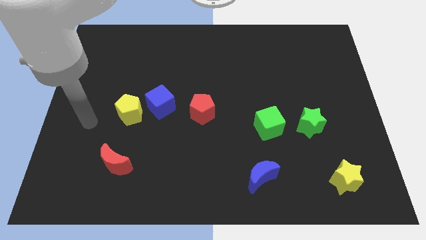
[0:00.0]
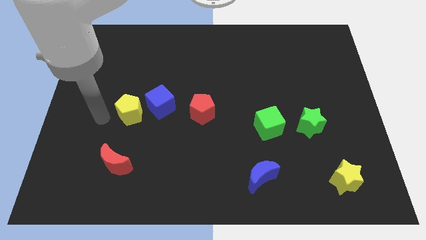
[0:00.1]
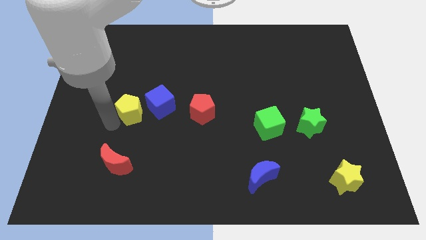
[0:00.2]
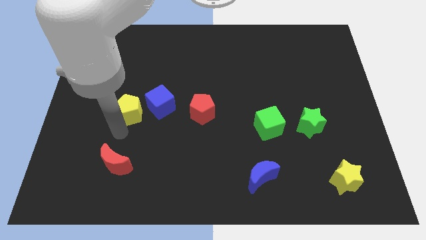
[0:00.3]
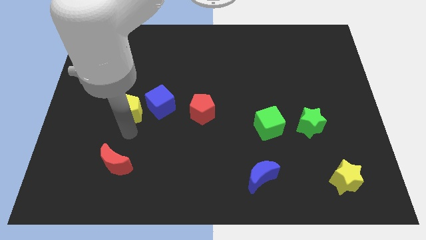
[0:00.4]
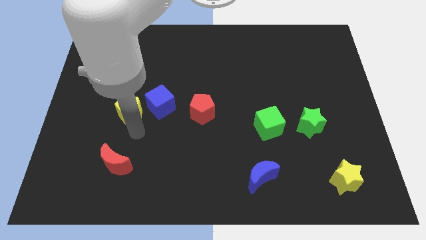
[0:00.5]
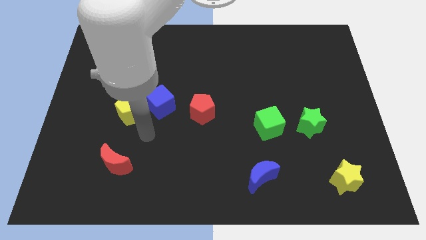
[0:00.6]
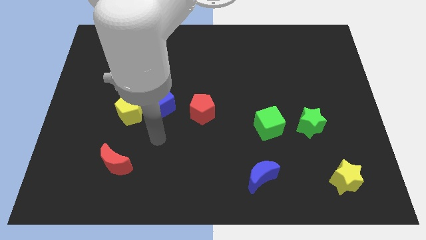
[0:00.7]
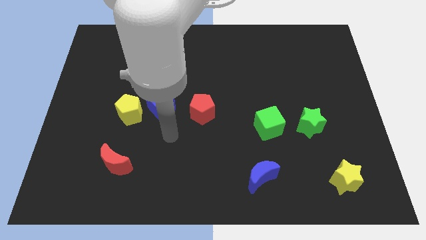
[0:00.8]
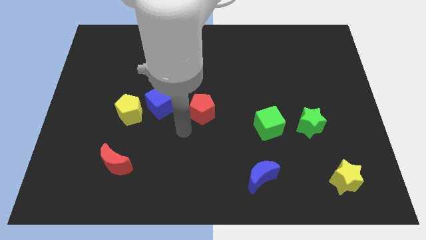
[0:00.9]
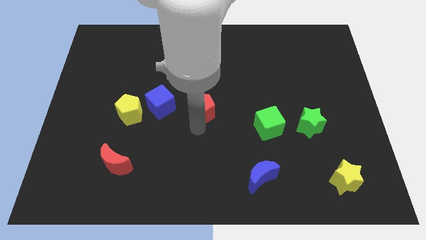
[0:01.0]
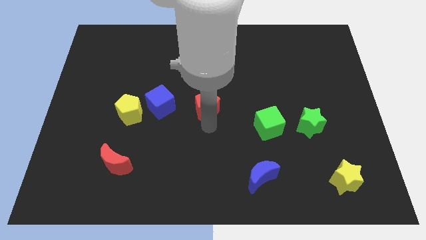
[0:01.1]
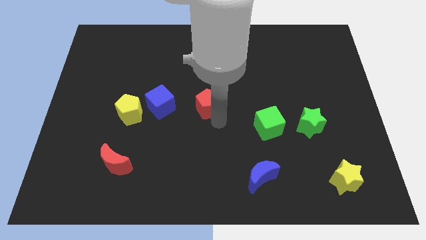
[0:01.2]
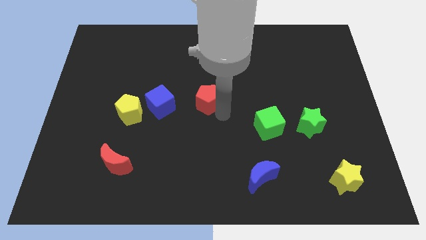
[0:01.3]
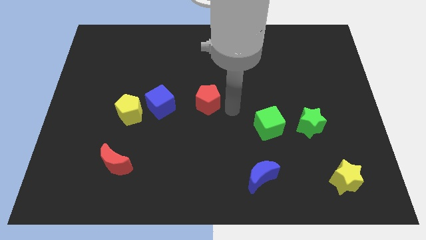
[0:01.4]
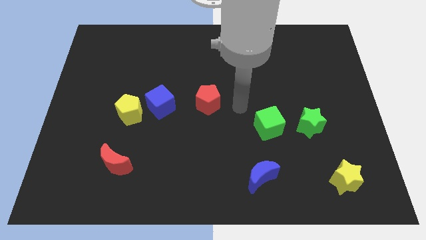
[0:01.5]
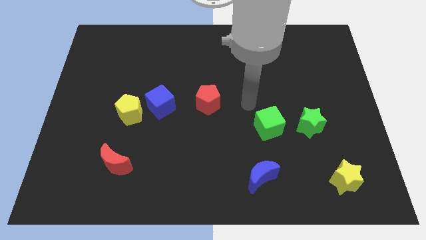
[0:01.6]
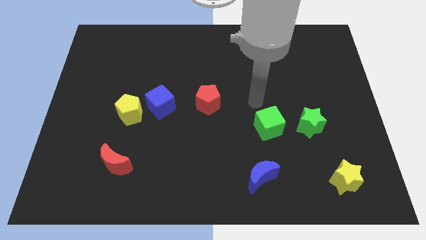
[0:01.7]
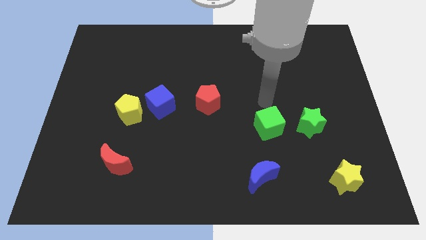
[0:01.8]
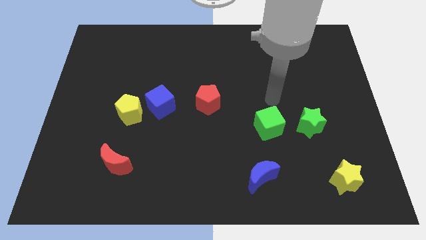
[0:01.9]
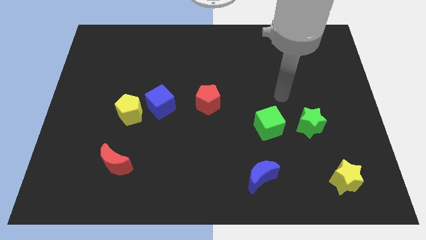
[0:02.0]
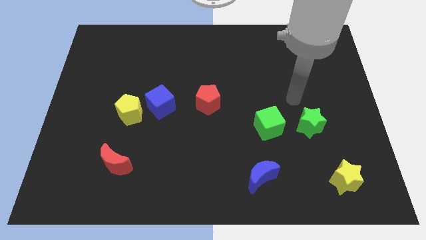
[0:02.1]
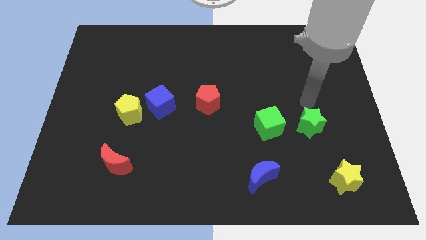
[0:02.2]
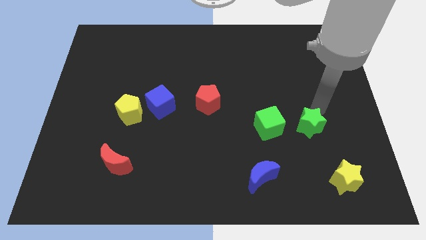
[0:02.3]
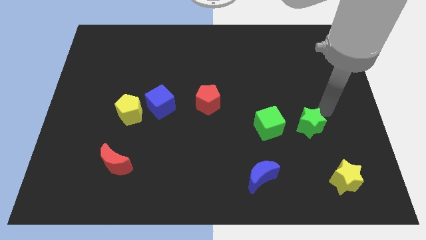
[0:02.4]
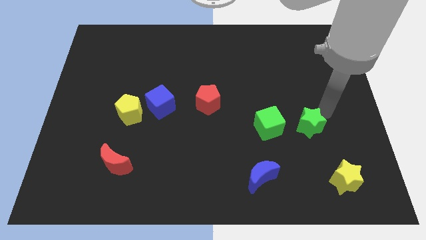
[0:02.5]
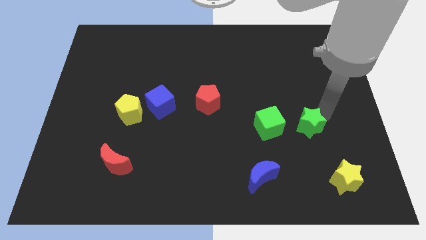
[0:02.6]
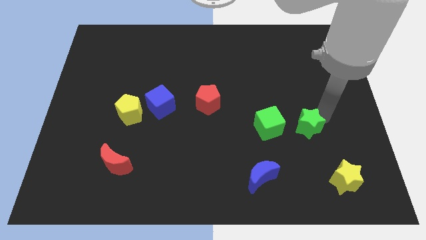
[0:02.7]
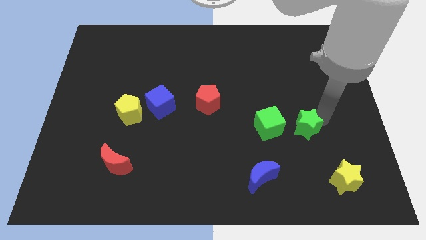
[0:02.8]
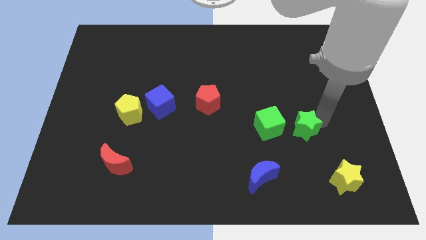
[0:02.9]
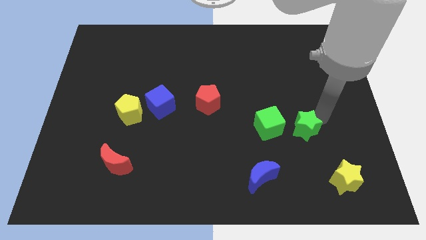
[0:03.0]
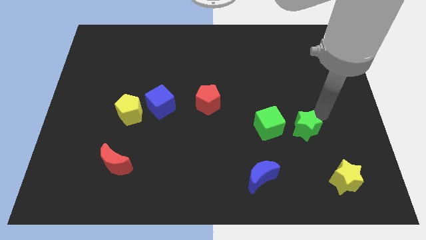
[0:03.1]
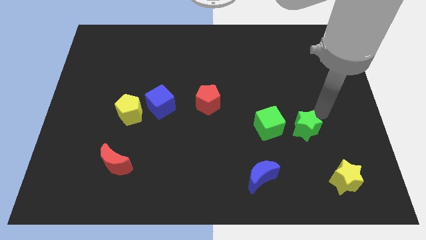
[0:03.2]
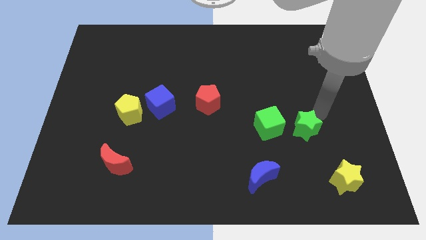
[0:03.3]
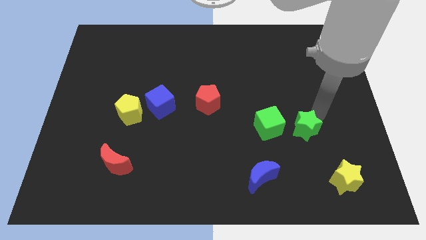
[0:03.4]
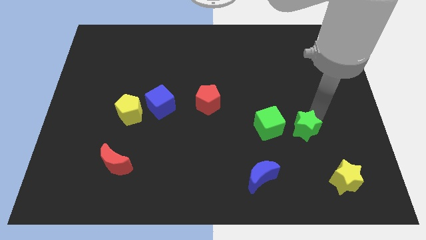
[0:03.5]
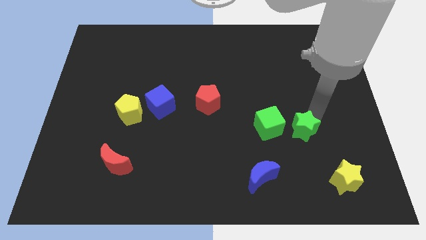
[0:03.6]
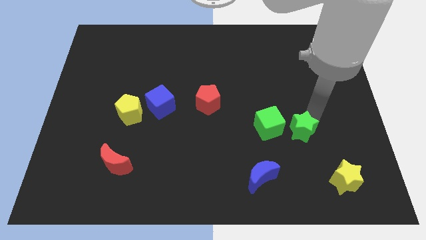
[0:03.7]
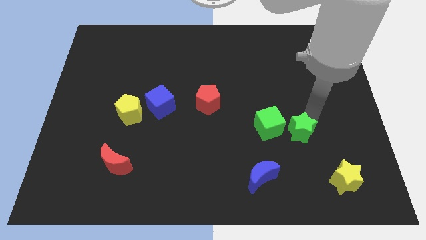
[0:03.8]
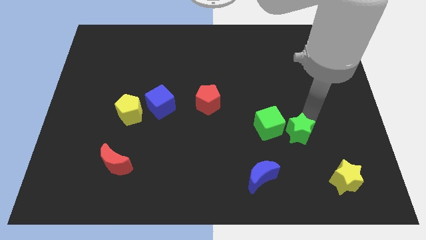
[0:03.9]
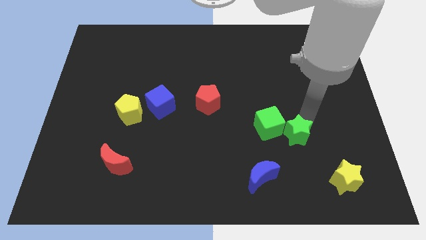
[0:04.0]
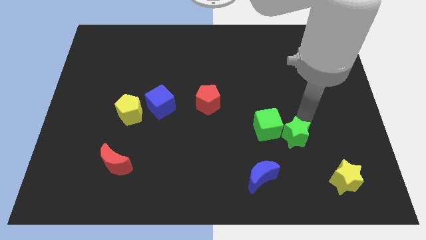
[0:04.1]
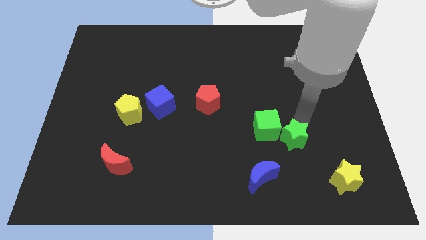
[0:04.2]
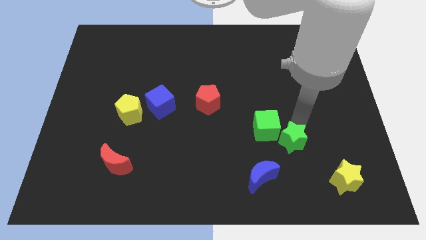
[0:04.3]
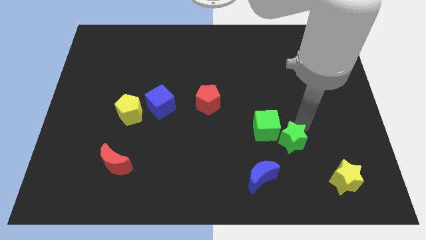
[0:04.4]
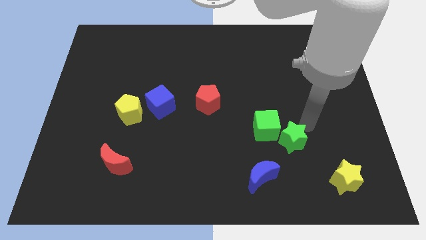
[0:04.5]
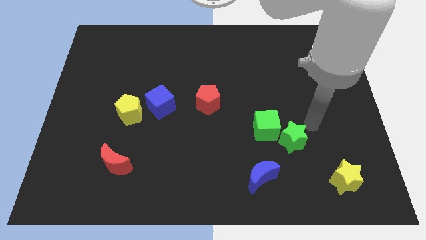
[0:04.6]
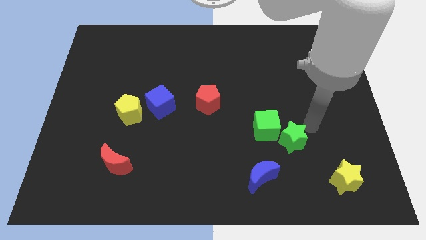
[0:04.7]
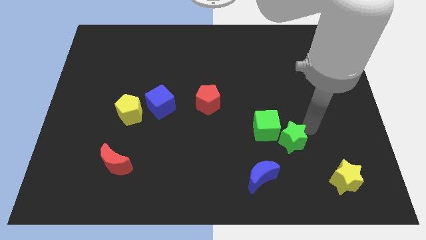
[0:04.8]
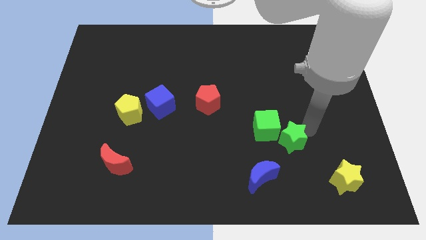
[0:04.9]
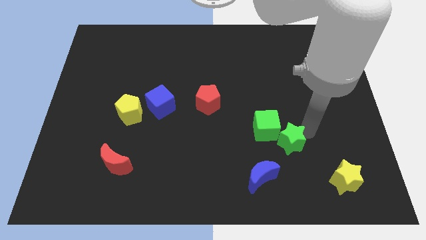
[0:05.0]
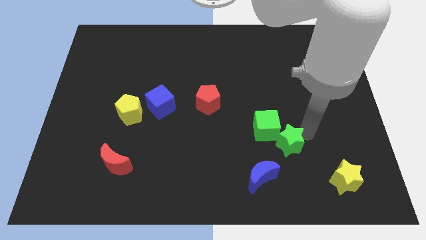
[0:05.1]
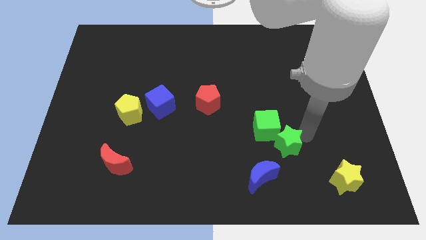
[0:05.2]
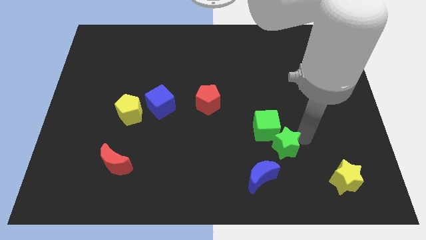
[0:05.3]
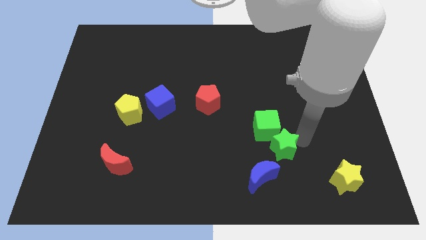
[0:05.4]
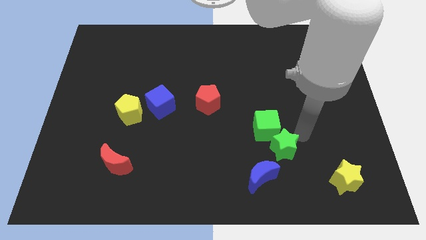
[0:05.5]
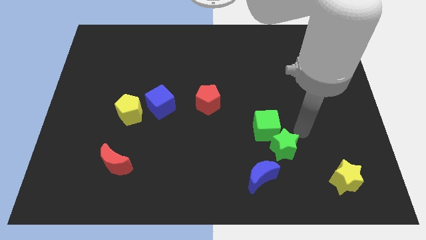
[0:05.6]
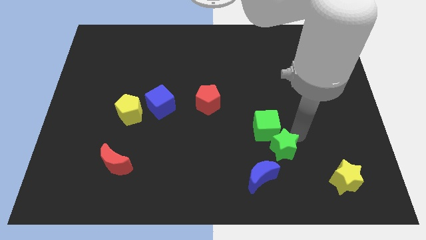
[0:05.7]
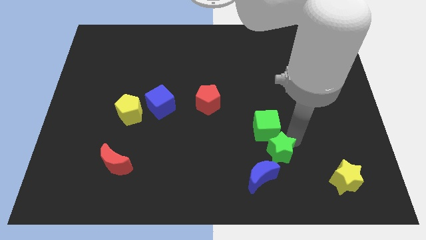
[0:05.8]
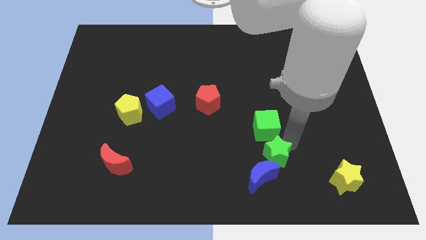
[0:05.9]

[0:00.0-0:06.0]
slide the green star towards the blue moon

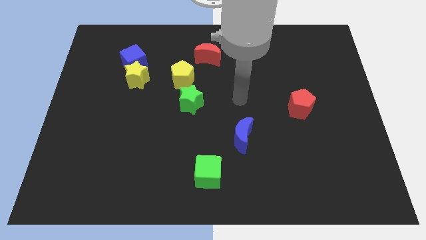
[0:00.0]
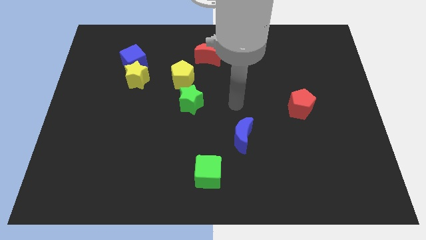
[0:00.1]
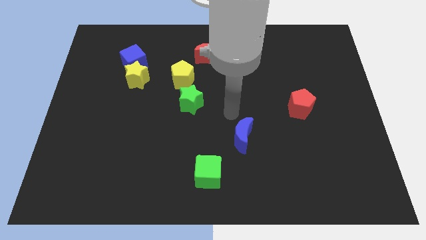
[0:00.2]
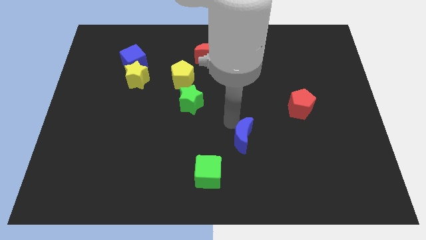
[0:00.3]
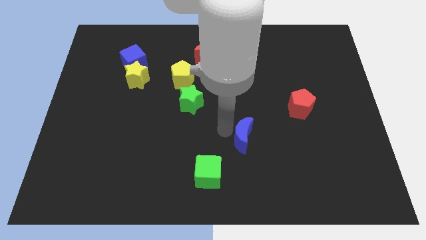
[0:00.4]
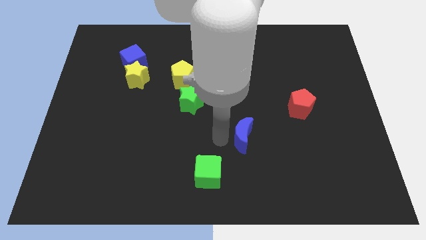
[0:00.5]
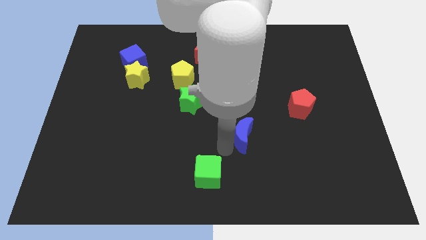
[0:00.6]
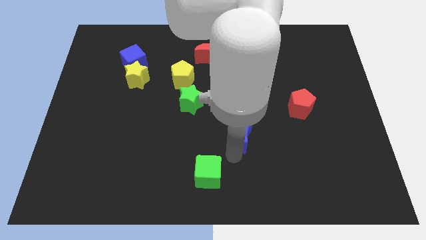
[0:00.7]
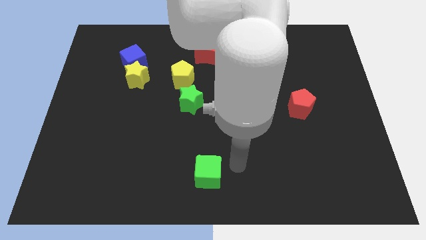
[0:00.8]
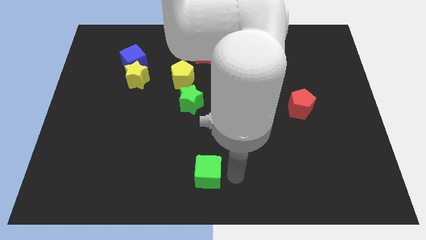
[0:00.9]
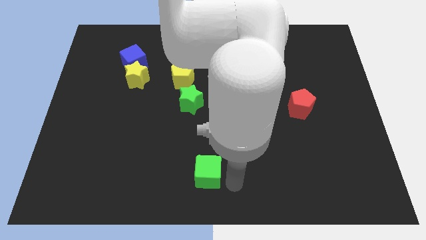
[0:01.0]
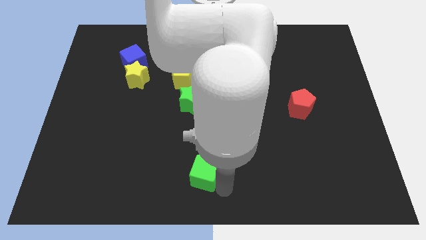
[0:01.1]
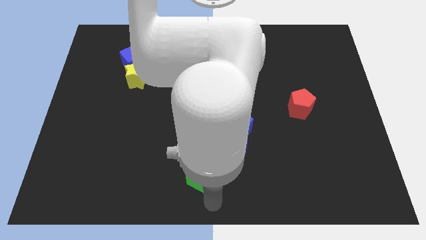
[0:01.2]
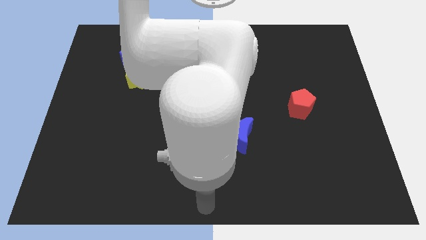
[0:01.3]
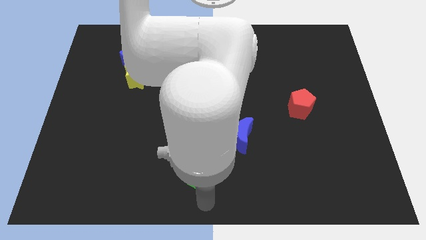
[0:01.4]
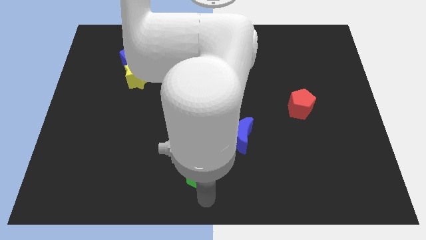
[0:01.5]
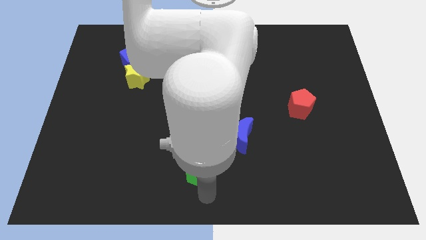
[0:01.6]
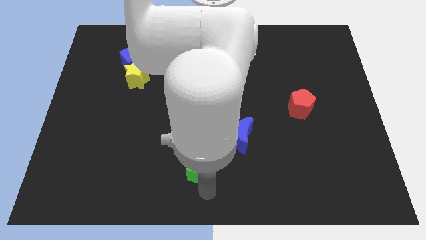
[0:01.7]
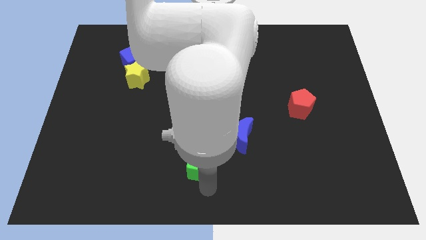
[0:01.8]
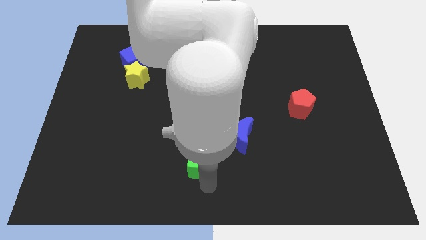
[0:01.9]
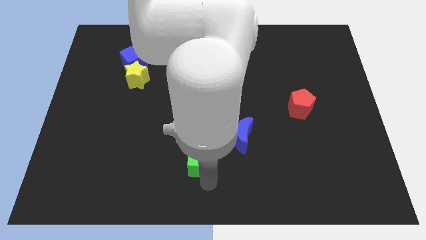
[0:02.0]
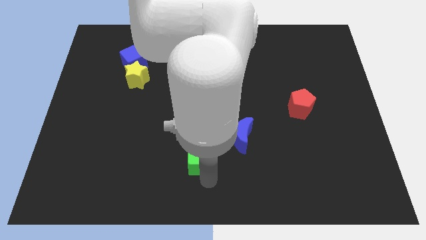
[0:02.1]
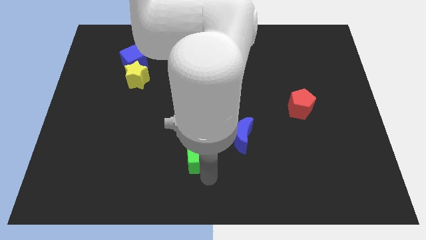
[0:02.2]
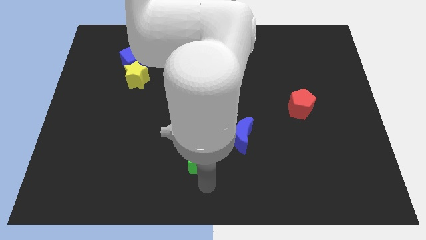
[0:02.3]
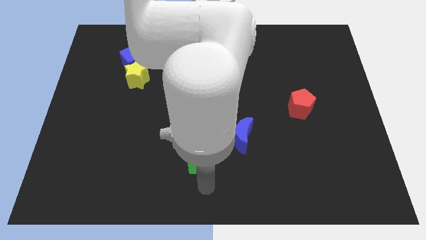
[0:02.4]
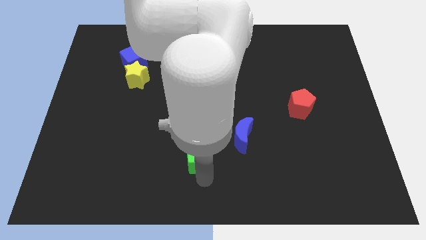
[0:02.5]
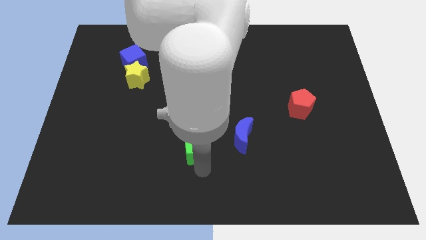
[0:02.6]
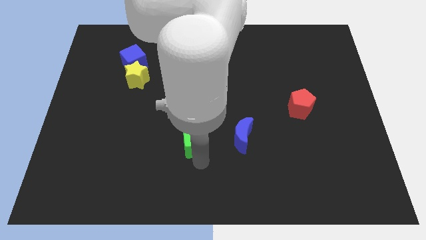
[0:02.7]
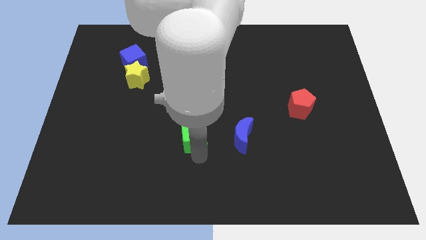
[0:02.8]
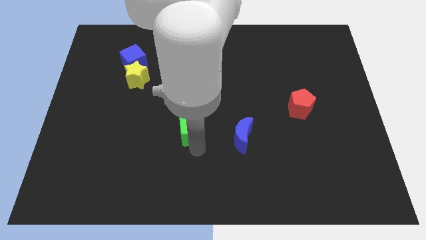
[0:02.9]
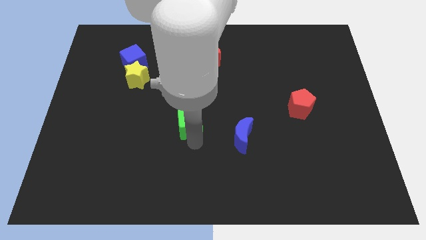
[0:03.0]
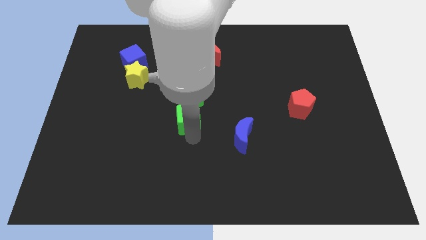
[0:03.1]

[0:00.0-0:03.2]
put the green cube to the green star
